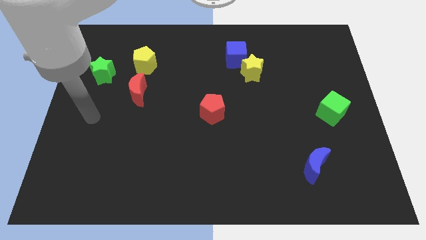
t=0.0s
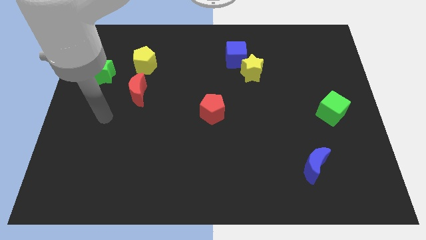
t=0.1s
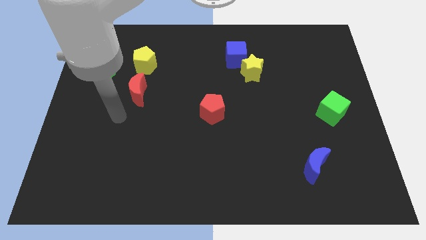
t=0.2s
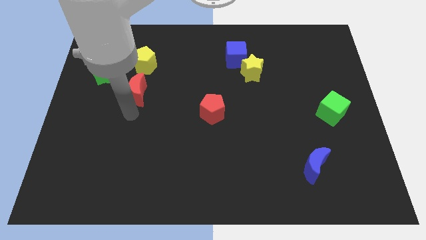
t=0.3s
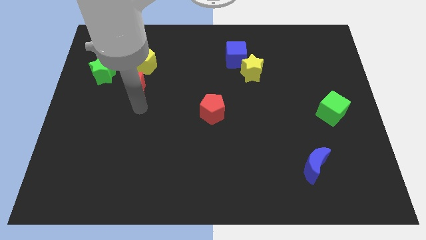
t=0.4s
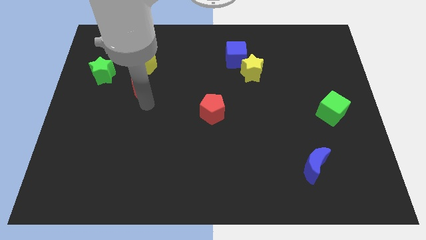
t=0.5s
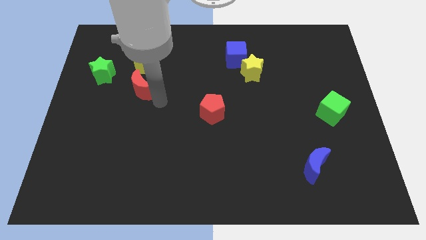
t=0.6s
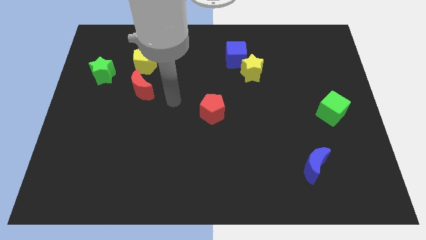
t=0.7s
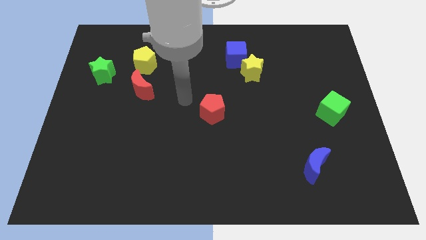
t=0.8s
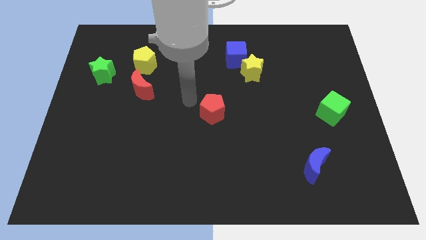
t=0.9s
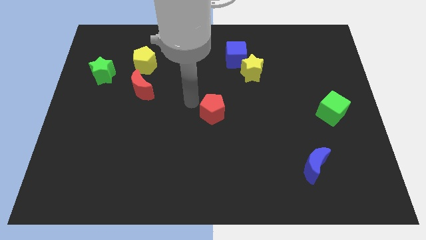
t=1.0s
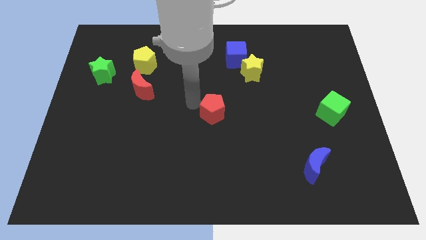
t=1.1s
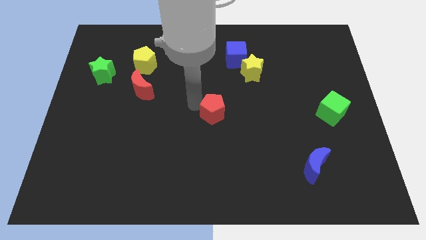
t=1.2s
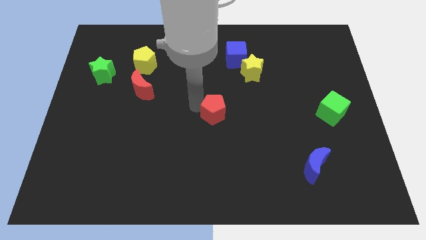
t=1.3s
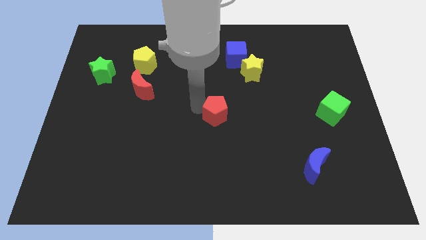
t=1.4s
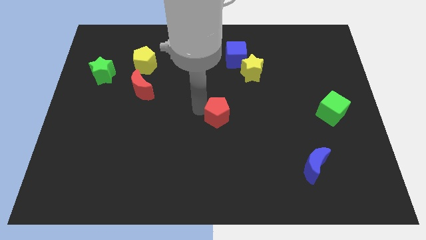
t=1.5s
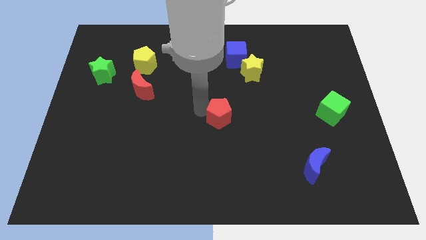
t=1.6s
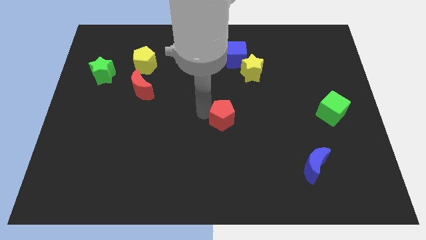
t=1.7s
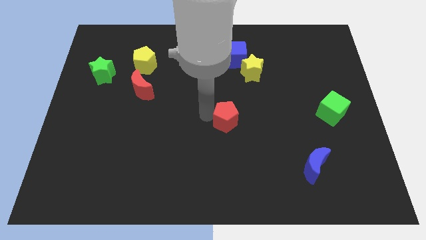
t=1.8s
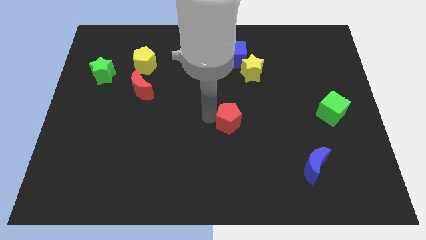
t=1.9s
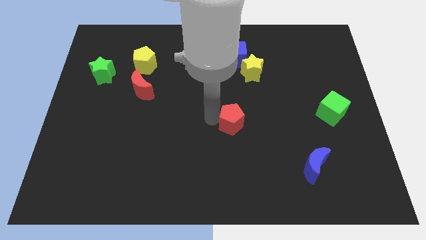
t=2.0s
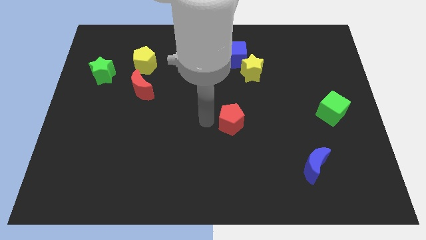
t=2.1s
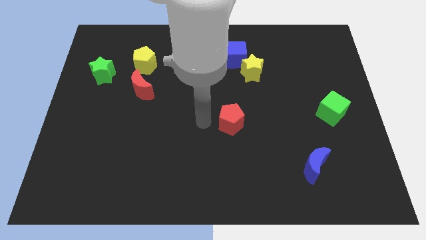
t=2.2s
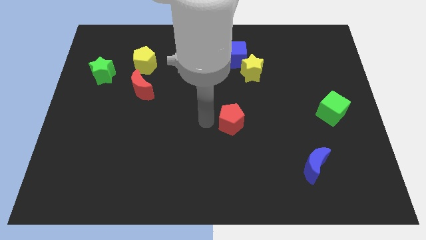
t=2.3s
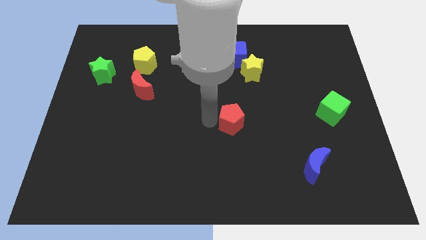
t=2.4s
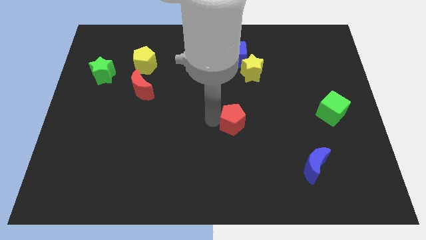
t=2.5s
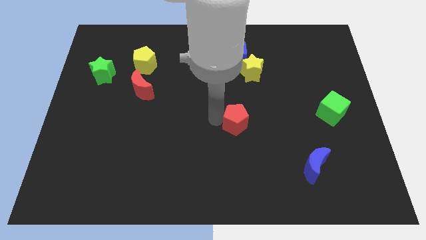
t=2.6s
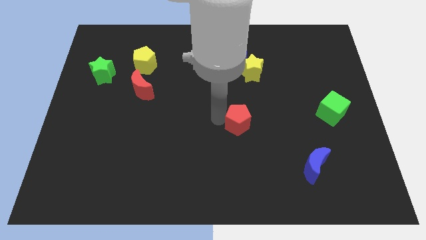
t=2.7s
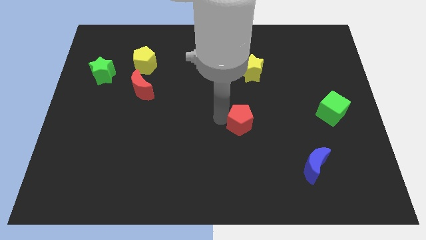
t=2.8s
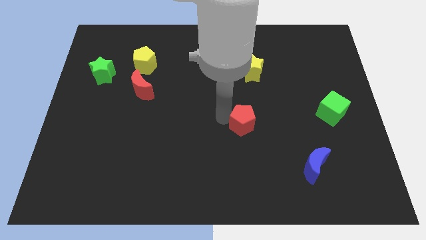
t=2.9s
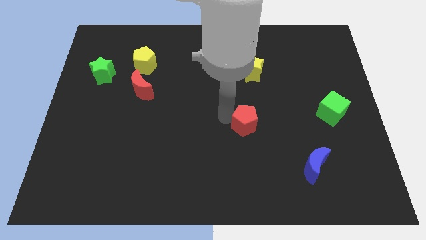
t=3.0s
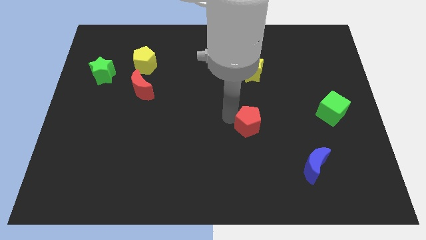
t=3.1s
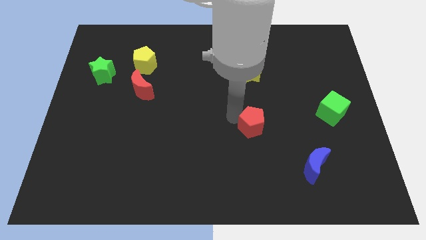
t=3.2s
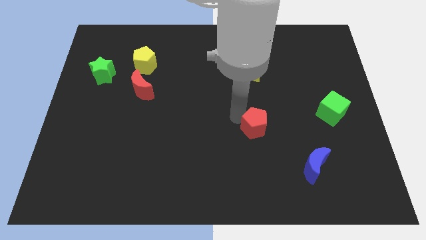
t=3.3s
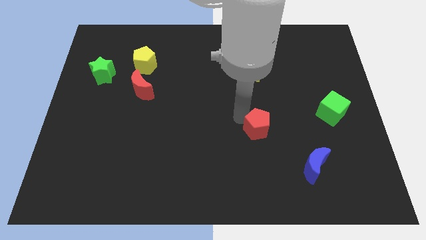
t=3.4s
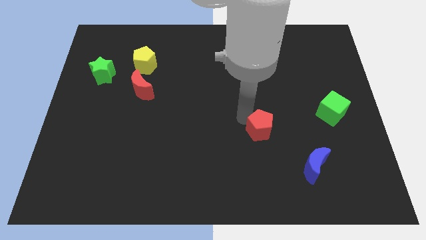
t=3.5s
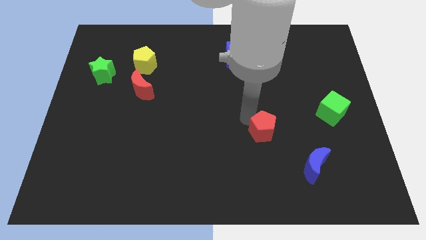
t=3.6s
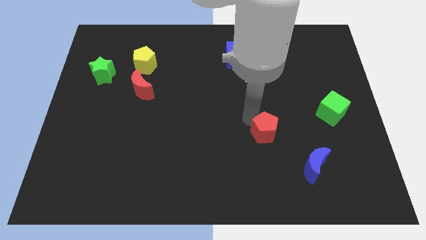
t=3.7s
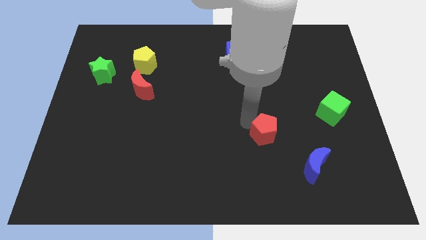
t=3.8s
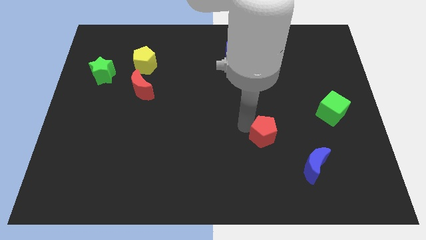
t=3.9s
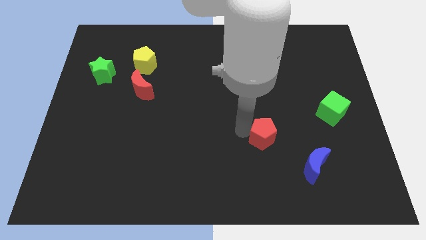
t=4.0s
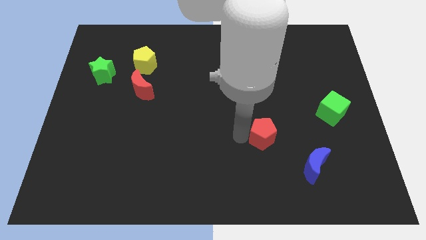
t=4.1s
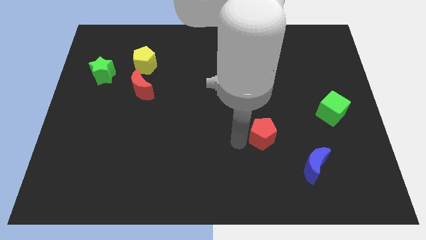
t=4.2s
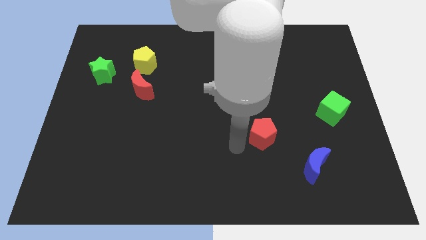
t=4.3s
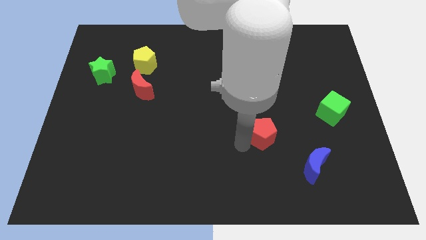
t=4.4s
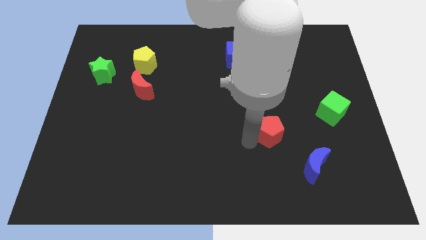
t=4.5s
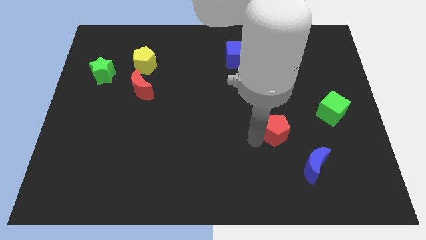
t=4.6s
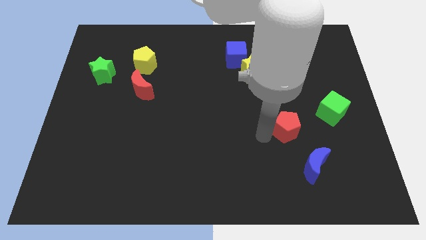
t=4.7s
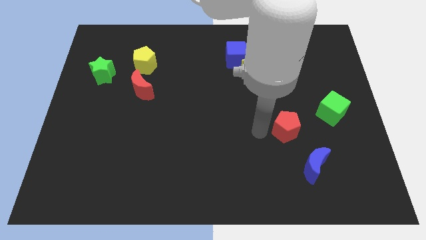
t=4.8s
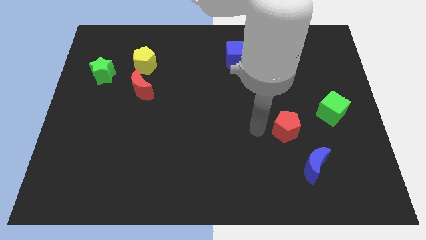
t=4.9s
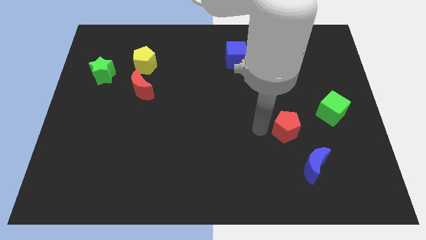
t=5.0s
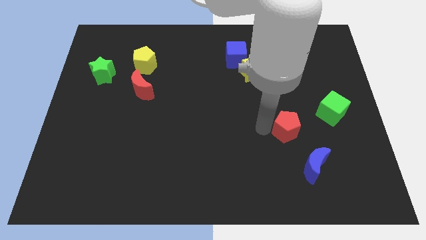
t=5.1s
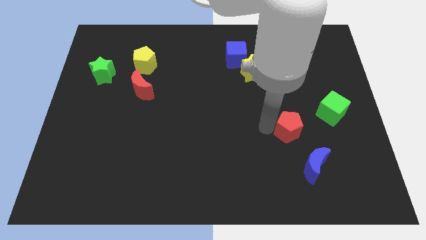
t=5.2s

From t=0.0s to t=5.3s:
slide the red pentagon diagonally down and to the left of the green cube

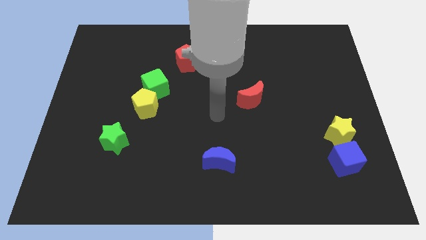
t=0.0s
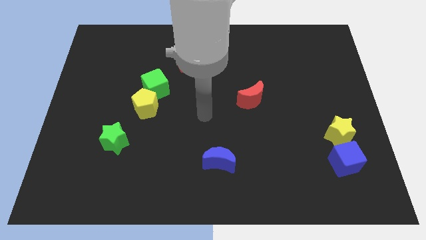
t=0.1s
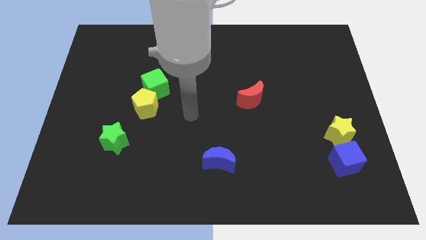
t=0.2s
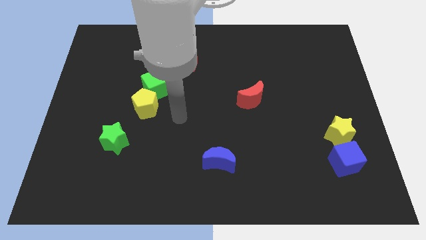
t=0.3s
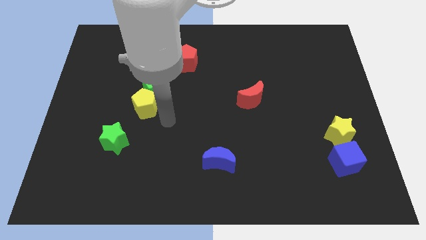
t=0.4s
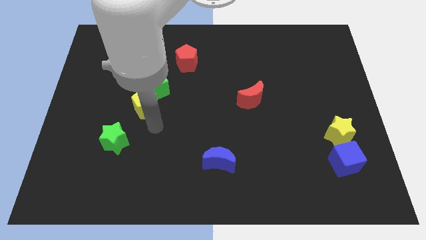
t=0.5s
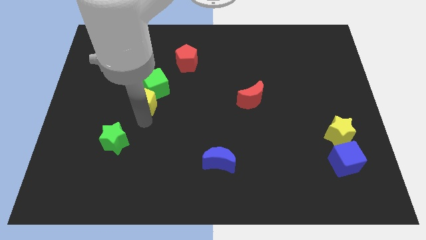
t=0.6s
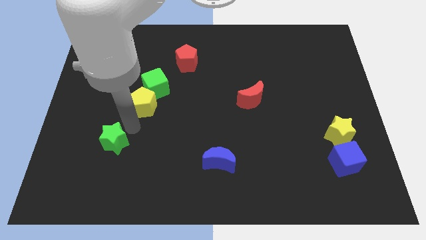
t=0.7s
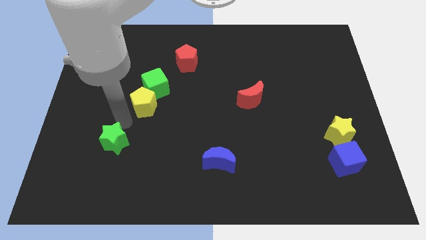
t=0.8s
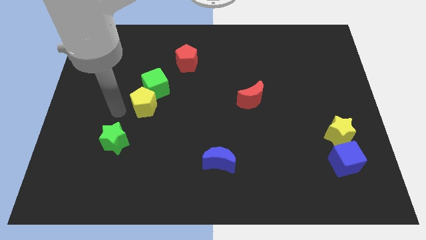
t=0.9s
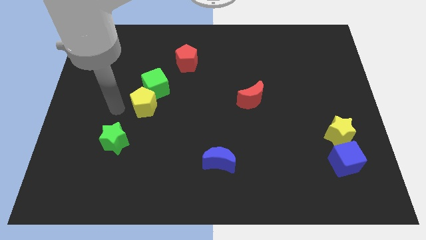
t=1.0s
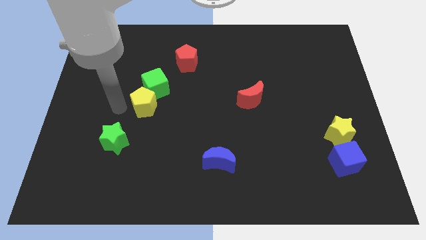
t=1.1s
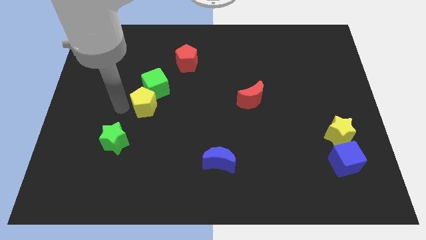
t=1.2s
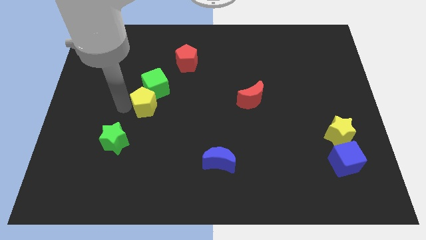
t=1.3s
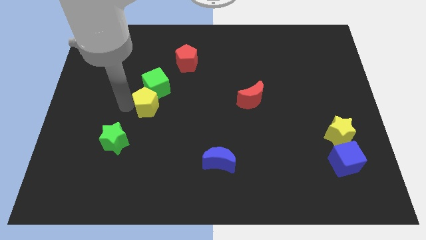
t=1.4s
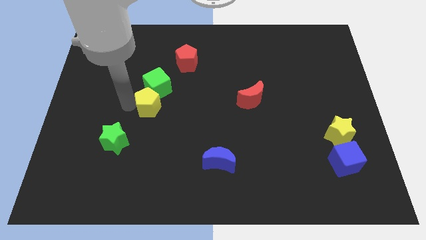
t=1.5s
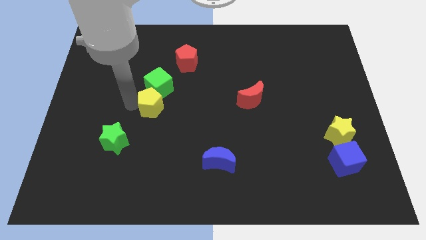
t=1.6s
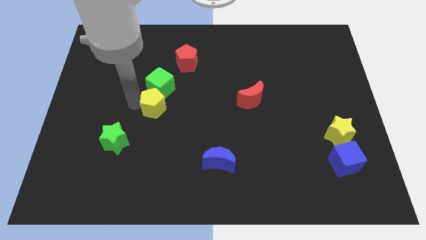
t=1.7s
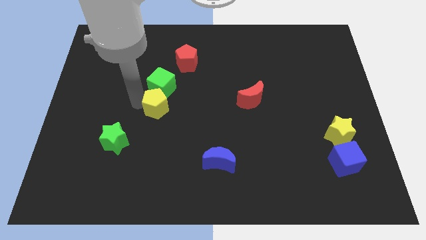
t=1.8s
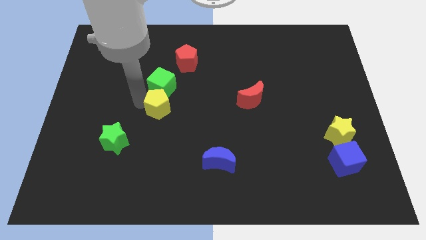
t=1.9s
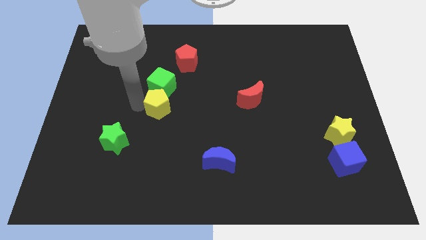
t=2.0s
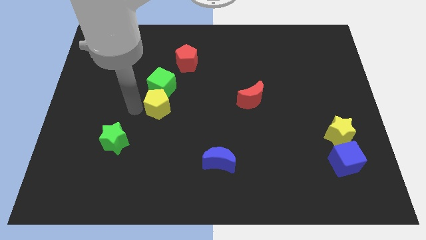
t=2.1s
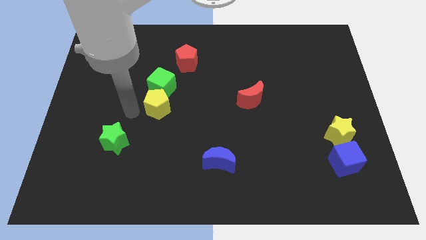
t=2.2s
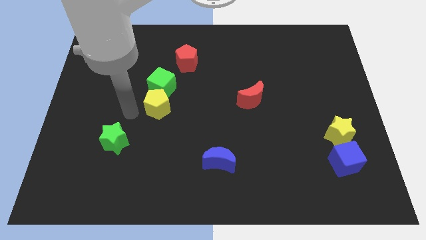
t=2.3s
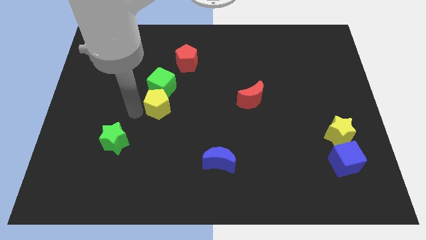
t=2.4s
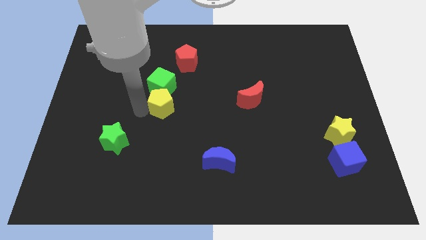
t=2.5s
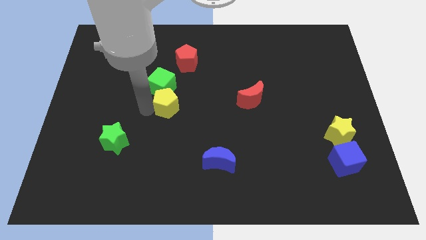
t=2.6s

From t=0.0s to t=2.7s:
push the yellow pentagon below the red pentagon
